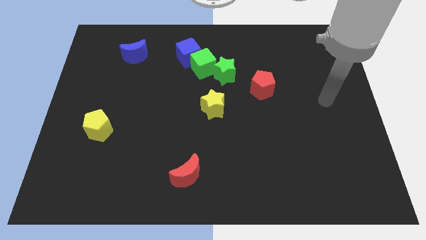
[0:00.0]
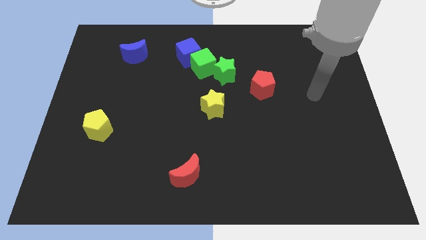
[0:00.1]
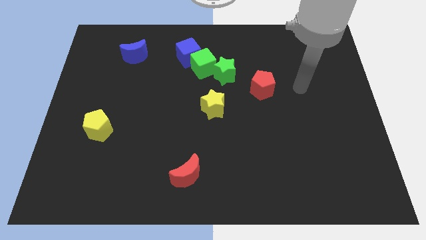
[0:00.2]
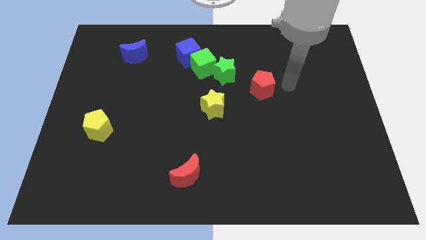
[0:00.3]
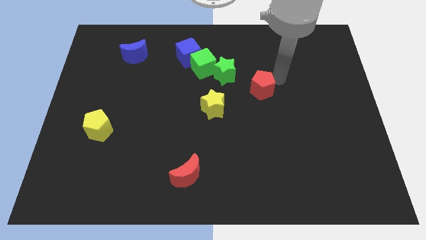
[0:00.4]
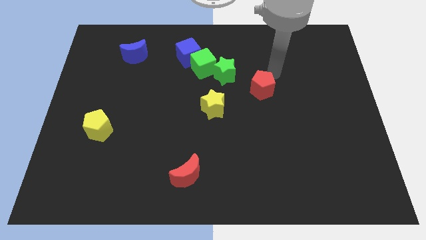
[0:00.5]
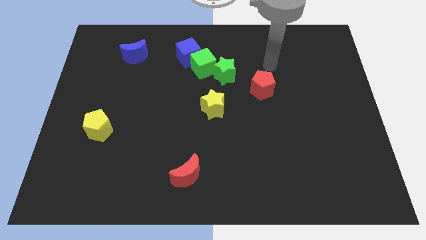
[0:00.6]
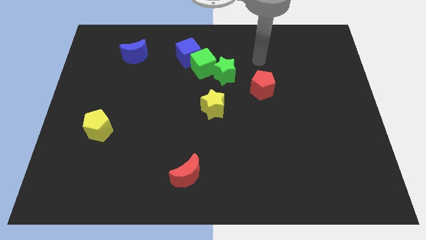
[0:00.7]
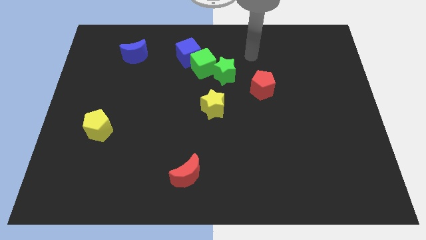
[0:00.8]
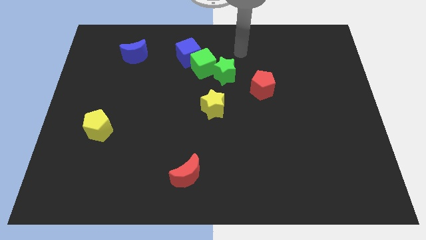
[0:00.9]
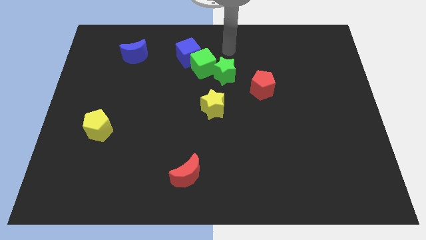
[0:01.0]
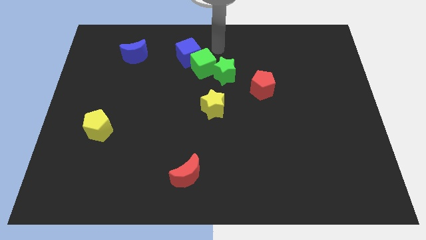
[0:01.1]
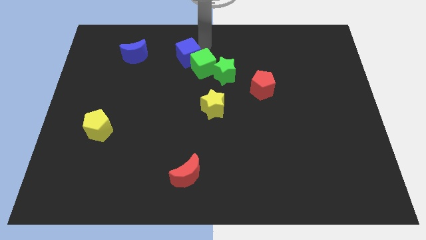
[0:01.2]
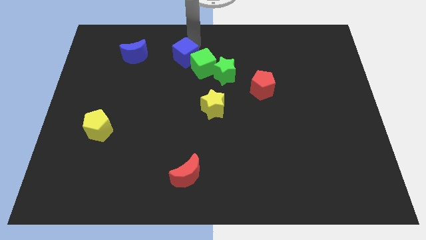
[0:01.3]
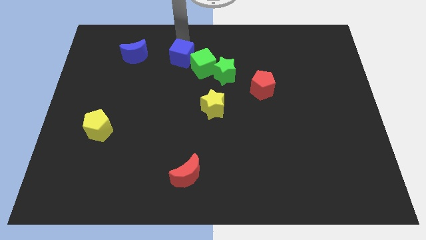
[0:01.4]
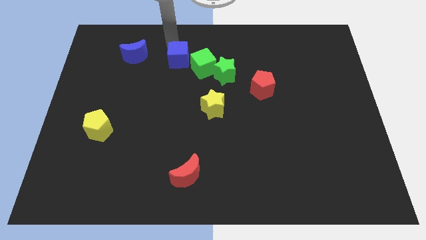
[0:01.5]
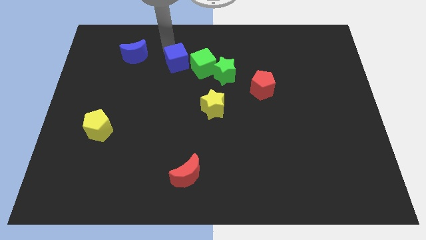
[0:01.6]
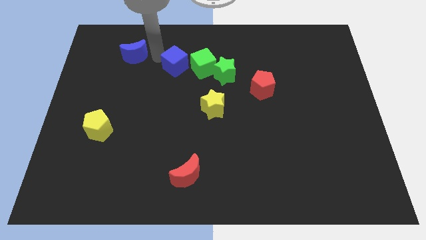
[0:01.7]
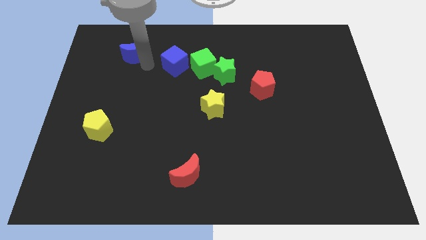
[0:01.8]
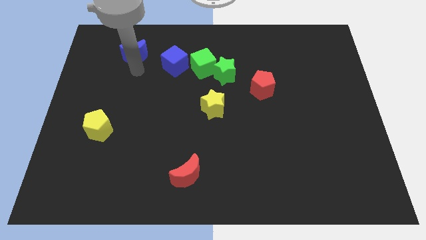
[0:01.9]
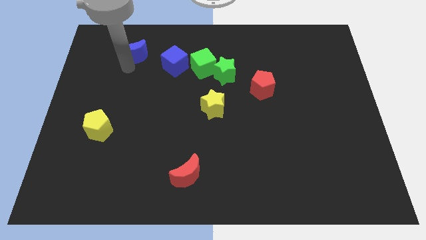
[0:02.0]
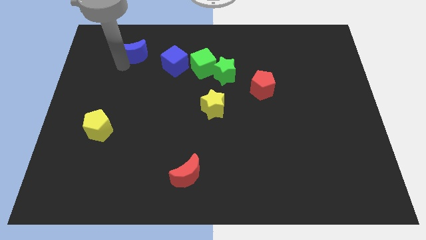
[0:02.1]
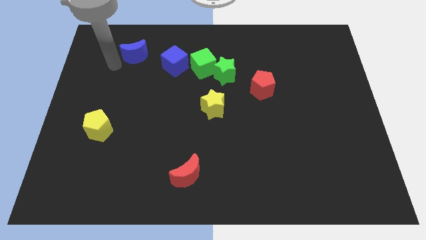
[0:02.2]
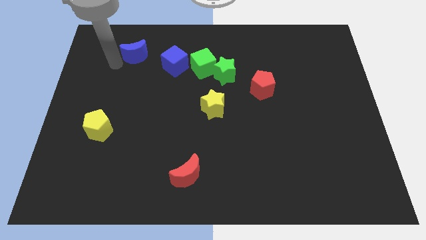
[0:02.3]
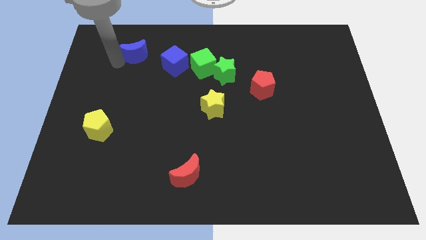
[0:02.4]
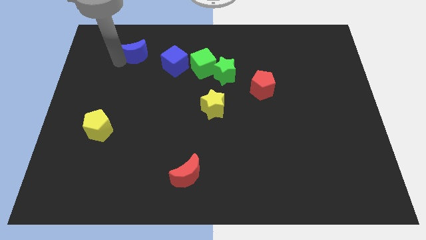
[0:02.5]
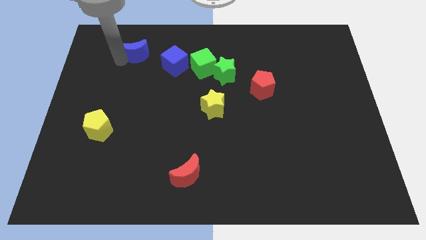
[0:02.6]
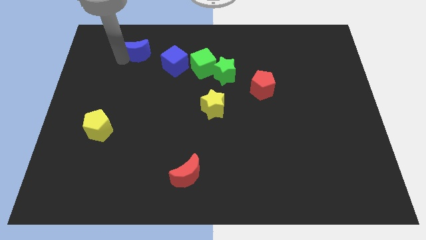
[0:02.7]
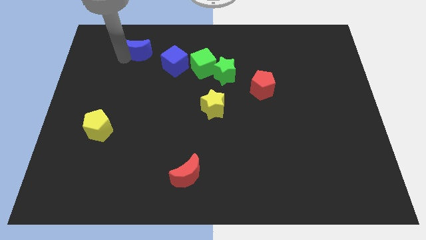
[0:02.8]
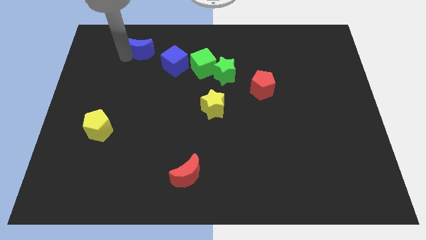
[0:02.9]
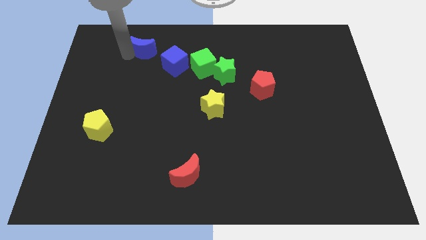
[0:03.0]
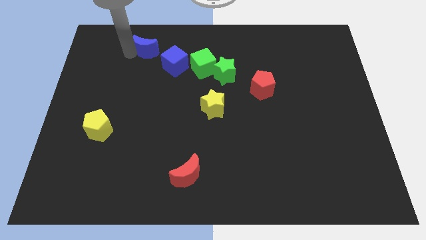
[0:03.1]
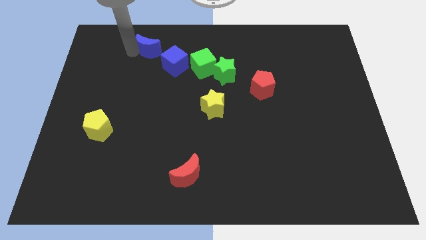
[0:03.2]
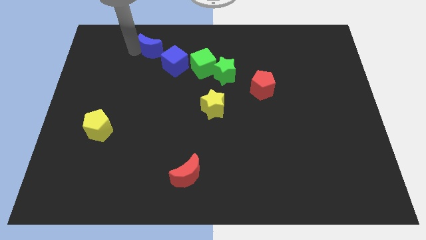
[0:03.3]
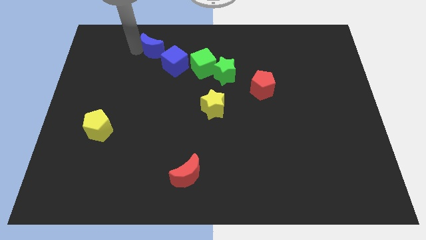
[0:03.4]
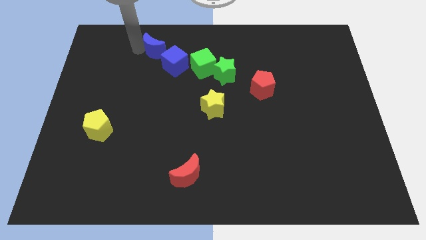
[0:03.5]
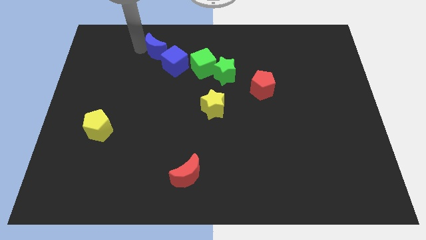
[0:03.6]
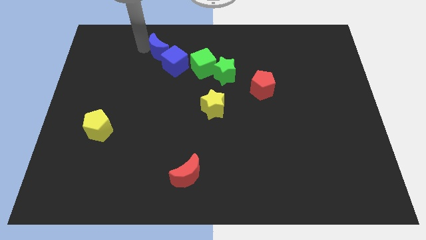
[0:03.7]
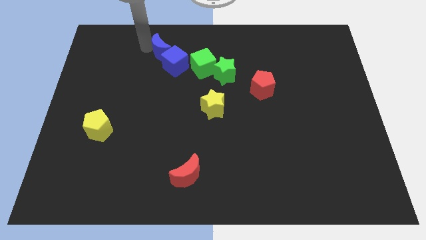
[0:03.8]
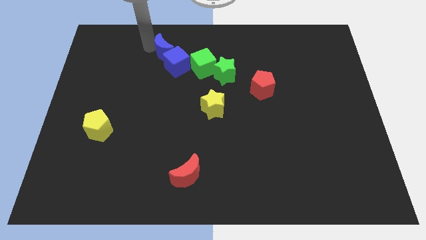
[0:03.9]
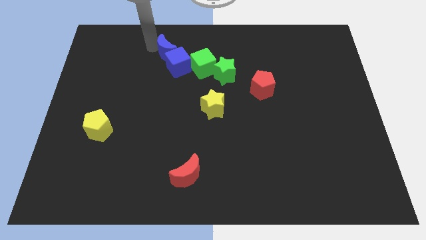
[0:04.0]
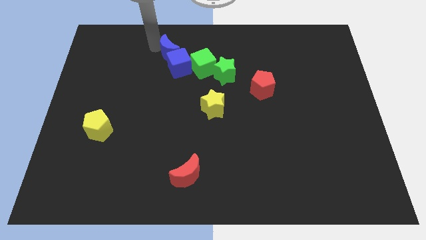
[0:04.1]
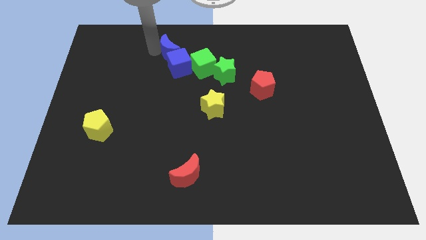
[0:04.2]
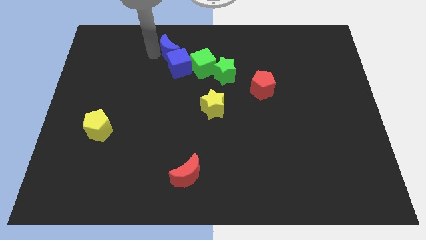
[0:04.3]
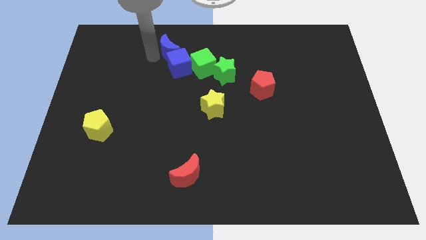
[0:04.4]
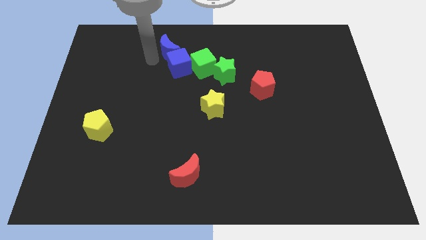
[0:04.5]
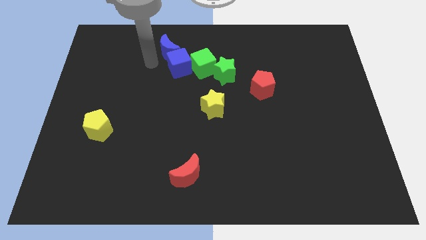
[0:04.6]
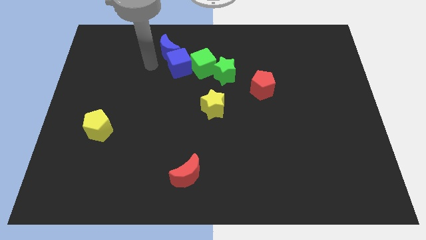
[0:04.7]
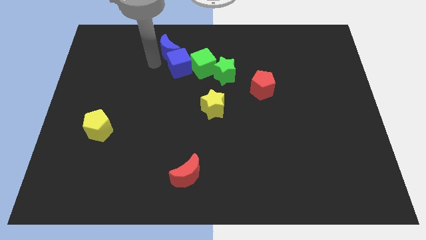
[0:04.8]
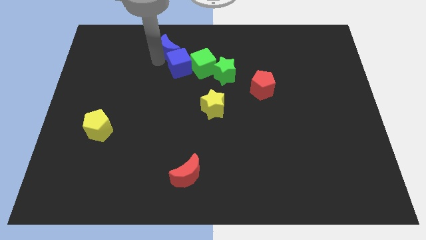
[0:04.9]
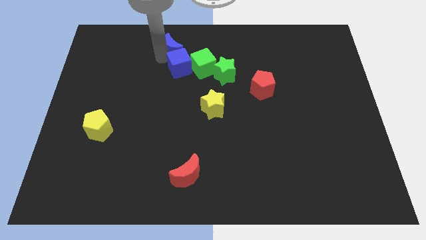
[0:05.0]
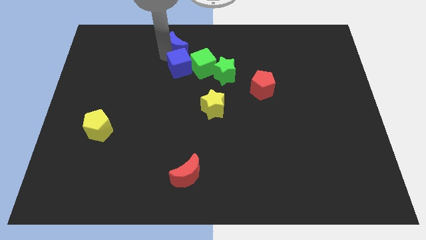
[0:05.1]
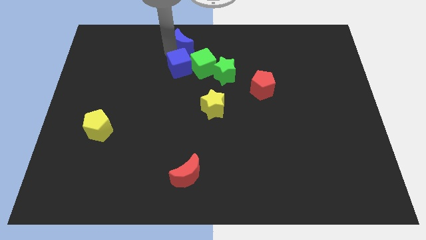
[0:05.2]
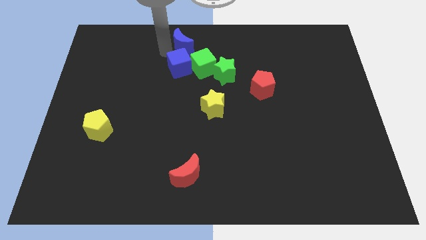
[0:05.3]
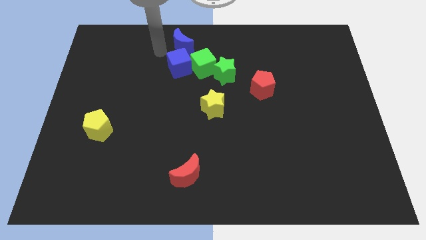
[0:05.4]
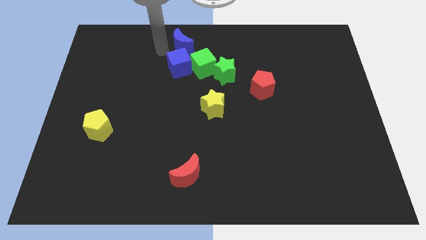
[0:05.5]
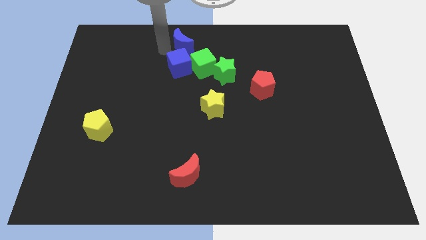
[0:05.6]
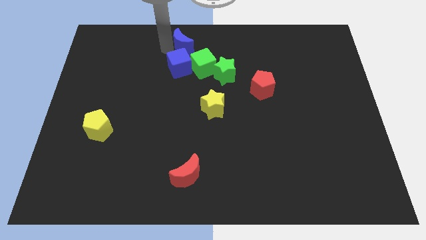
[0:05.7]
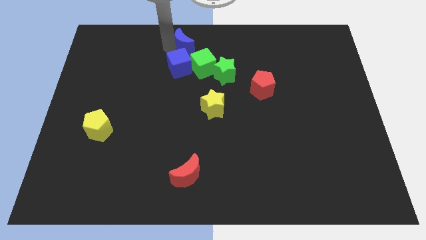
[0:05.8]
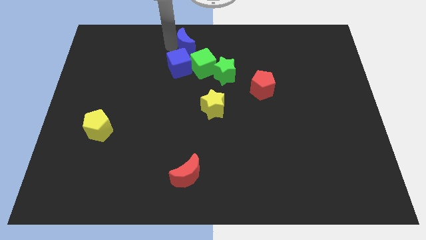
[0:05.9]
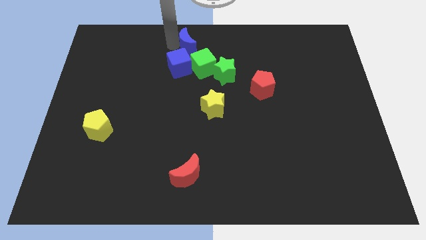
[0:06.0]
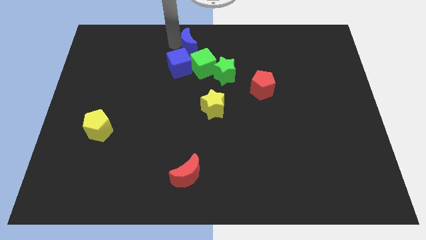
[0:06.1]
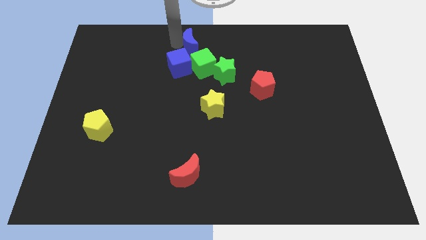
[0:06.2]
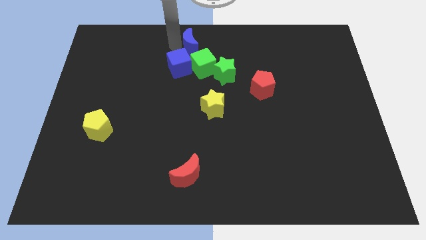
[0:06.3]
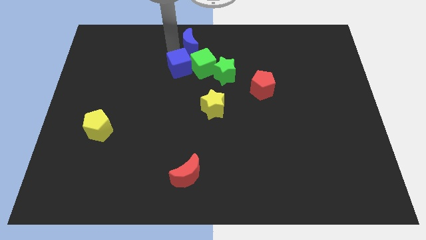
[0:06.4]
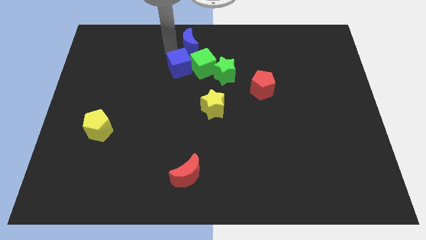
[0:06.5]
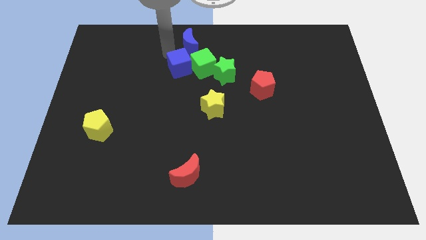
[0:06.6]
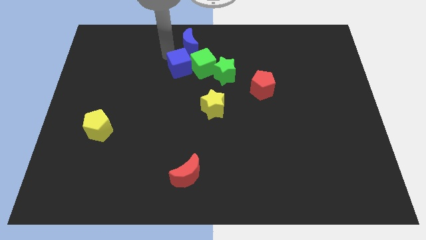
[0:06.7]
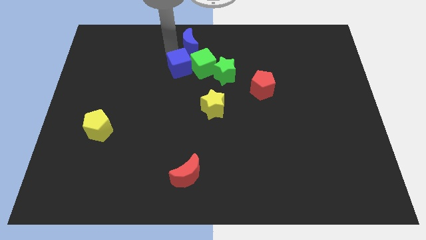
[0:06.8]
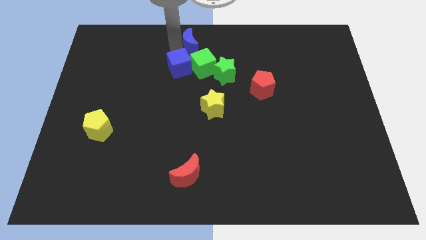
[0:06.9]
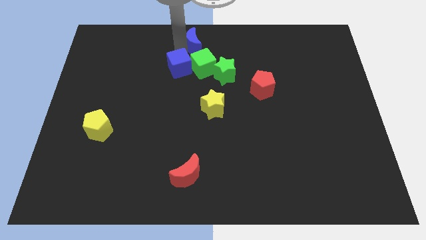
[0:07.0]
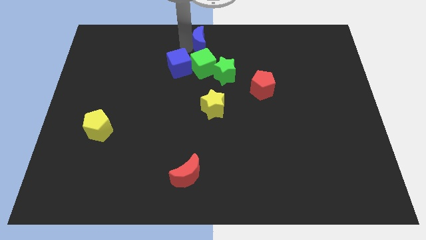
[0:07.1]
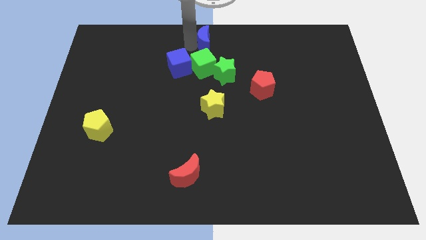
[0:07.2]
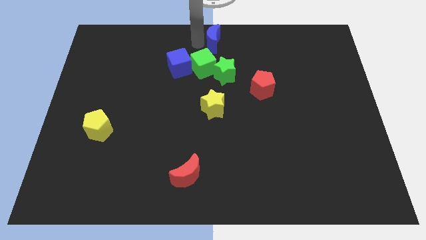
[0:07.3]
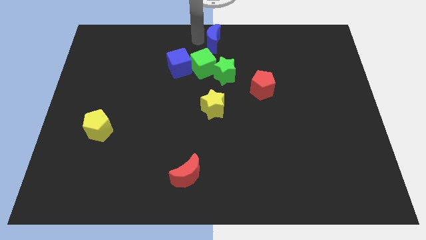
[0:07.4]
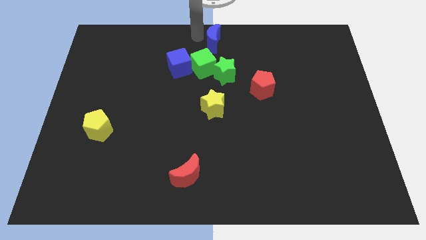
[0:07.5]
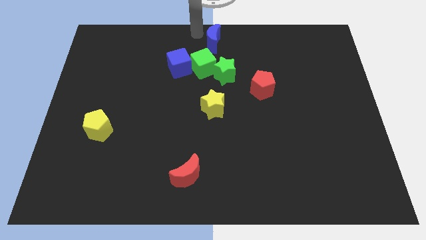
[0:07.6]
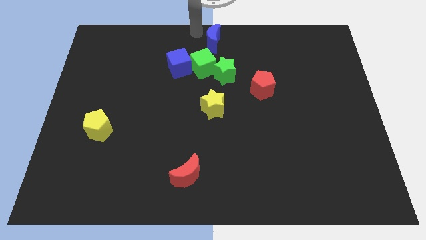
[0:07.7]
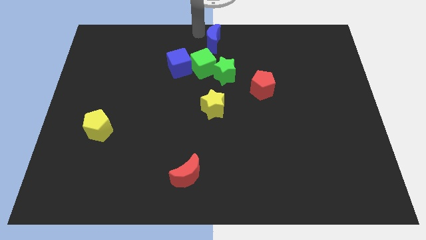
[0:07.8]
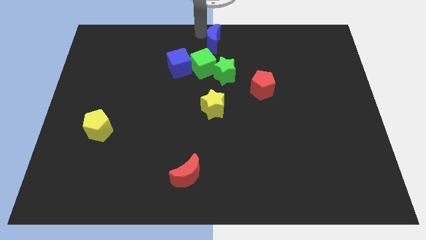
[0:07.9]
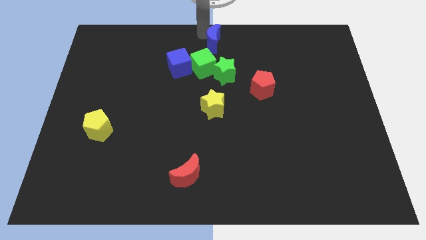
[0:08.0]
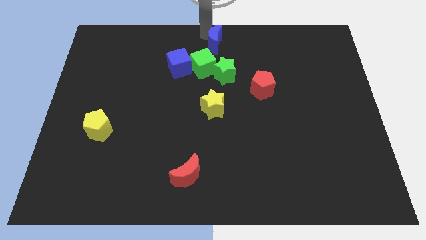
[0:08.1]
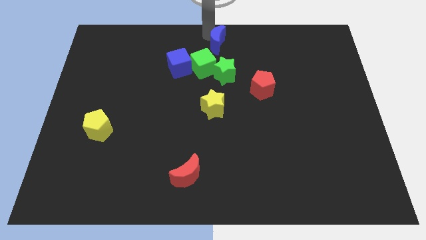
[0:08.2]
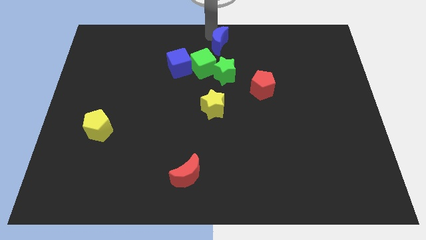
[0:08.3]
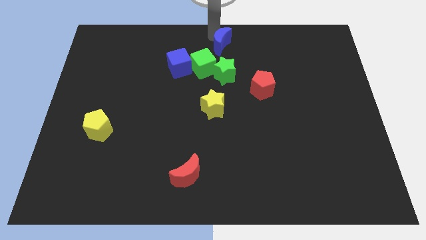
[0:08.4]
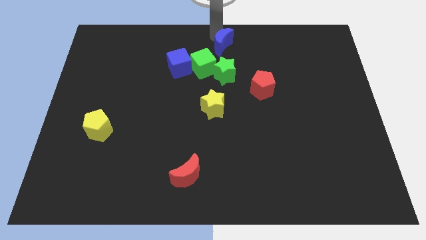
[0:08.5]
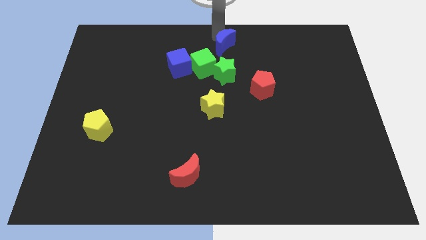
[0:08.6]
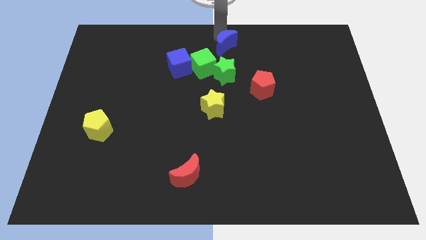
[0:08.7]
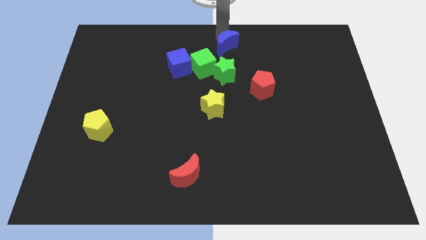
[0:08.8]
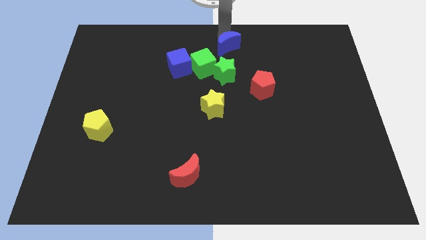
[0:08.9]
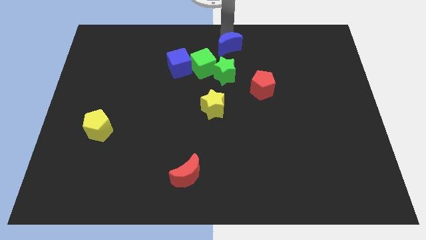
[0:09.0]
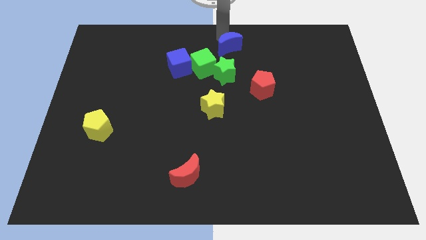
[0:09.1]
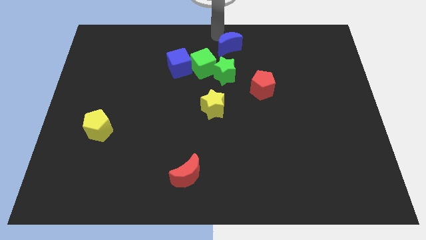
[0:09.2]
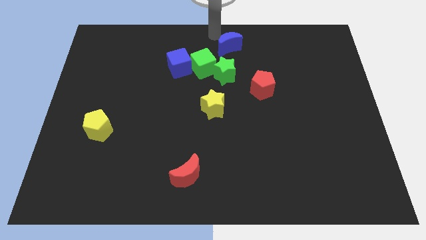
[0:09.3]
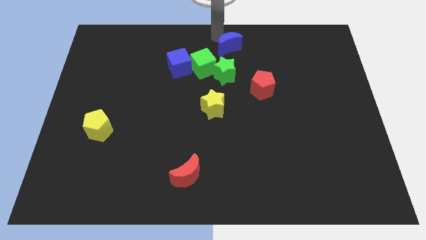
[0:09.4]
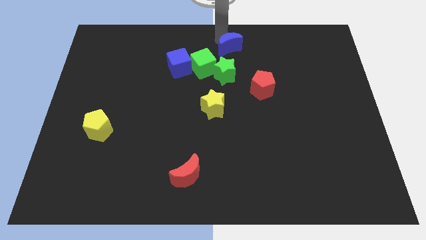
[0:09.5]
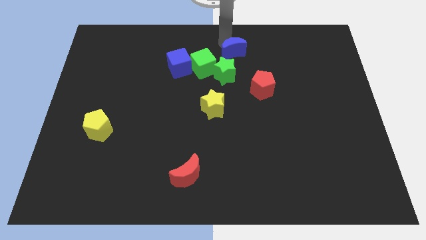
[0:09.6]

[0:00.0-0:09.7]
put the blue moon to the top right side of the green star
